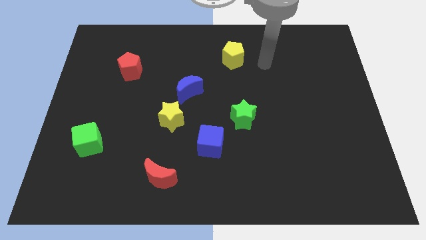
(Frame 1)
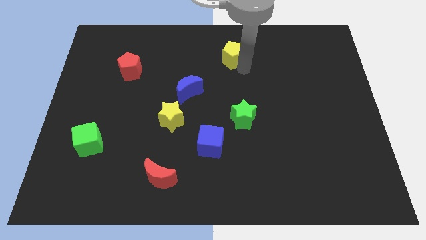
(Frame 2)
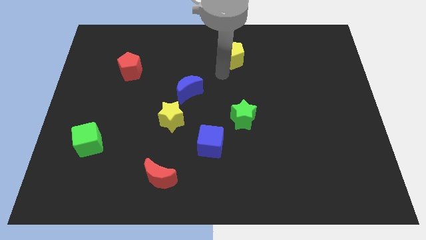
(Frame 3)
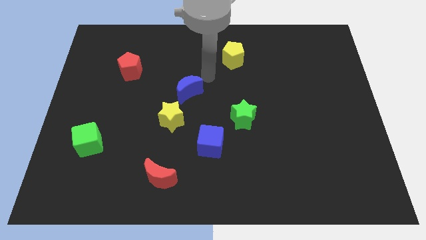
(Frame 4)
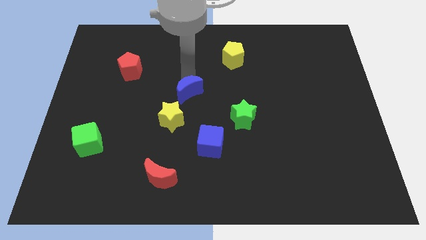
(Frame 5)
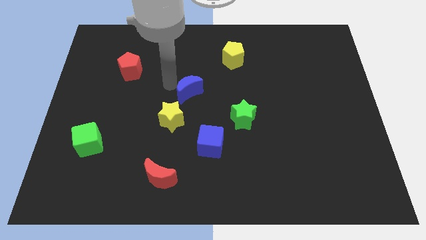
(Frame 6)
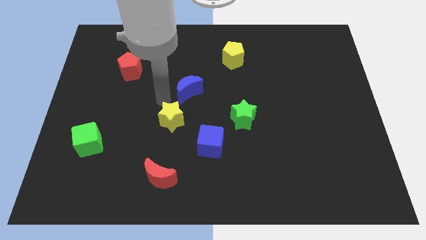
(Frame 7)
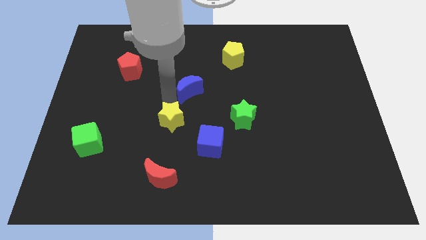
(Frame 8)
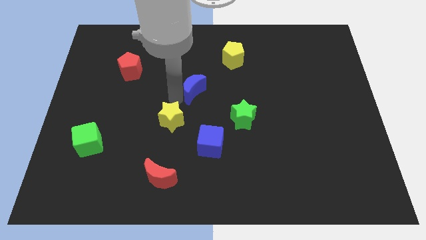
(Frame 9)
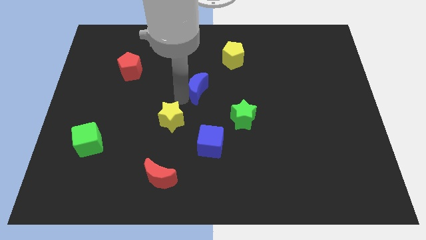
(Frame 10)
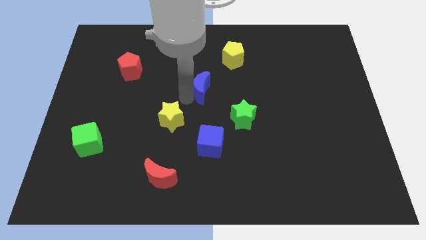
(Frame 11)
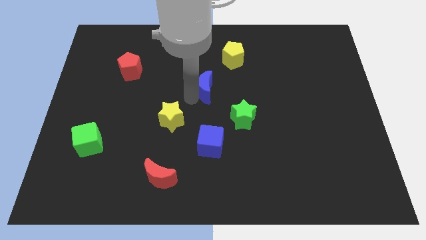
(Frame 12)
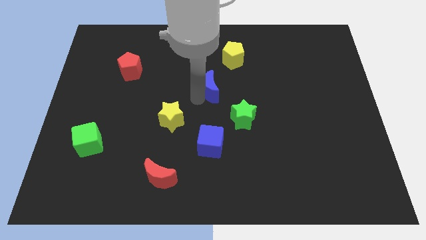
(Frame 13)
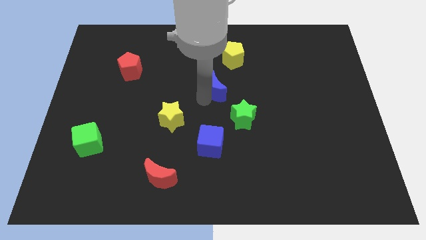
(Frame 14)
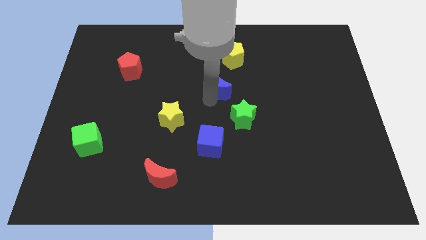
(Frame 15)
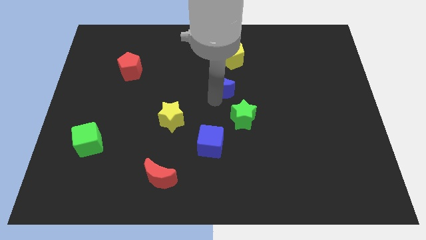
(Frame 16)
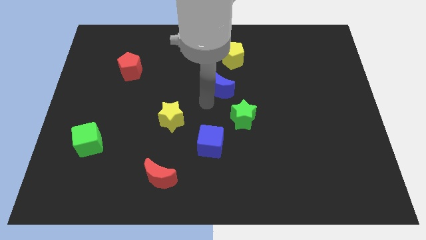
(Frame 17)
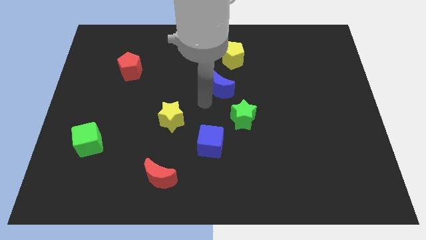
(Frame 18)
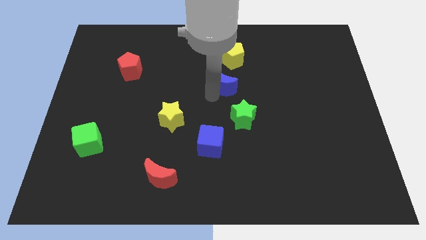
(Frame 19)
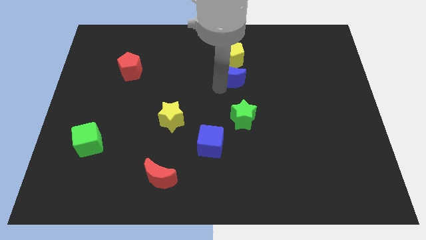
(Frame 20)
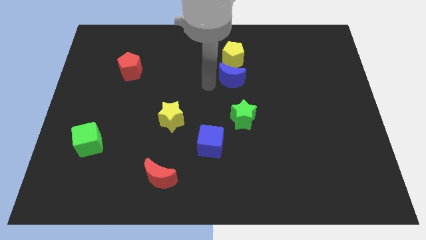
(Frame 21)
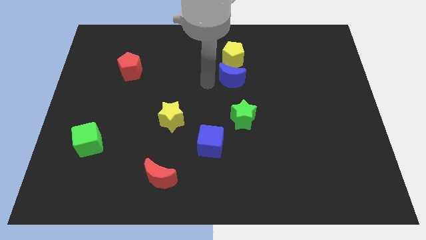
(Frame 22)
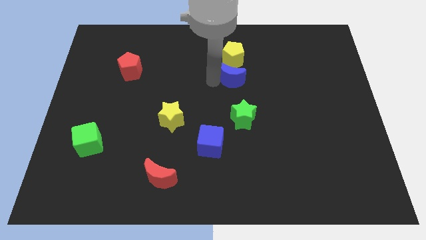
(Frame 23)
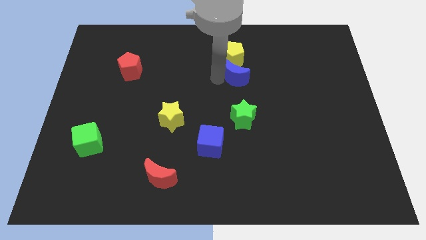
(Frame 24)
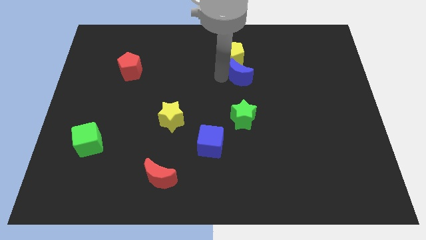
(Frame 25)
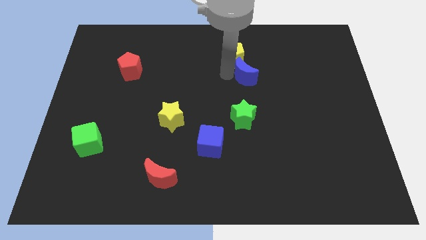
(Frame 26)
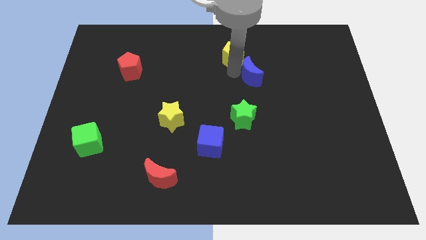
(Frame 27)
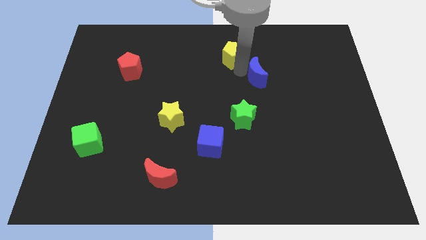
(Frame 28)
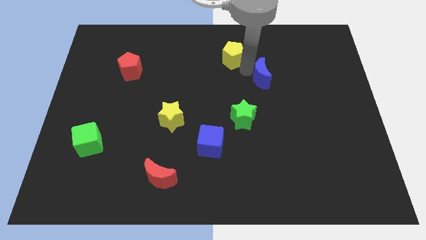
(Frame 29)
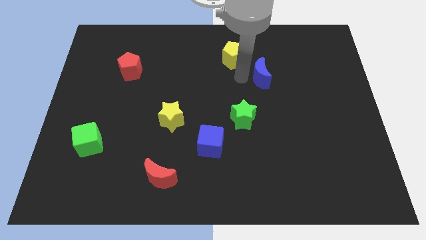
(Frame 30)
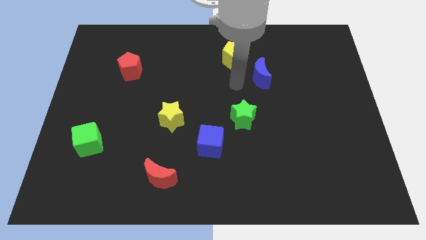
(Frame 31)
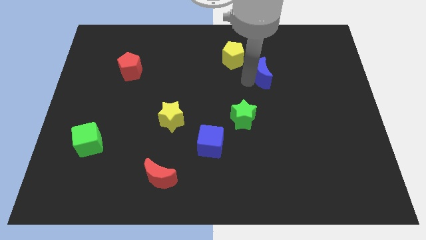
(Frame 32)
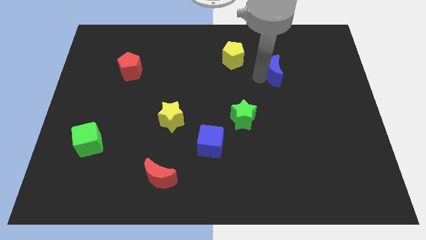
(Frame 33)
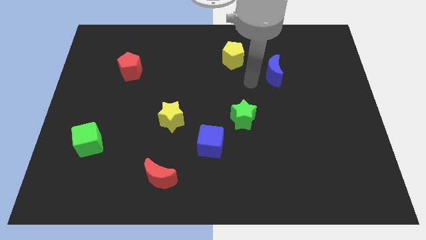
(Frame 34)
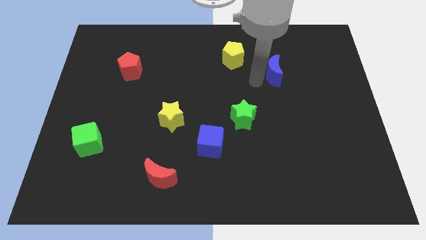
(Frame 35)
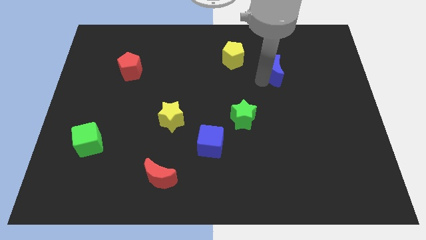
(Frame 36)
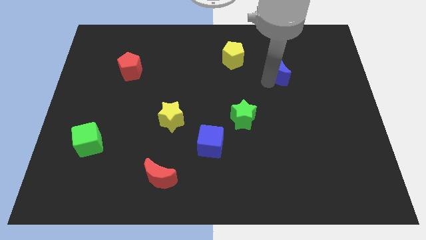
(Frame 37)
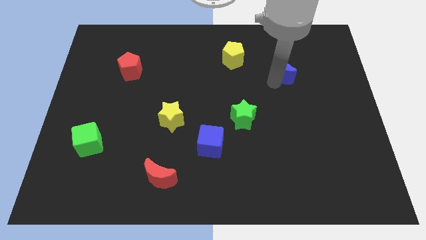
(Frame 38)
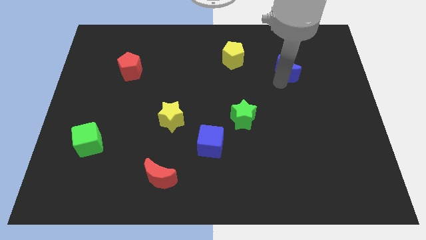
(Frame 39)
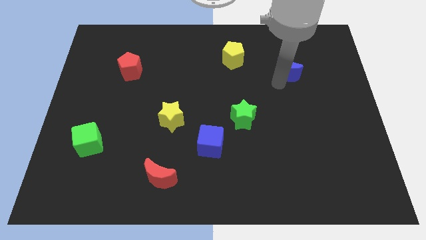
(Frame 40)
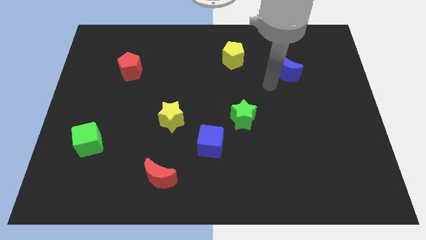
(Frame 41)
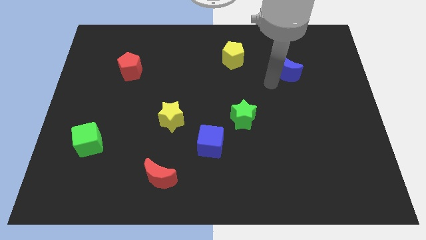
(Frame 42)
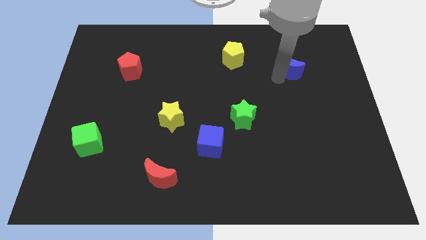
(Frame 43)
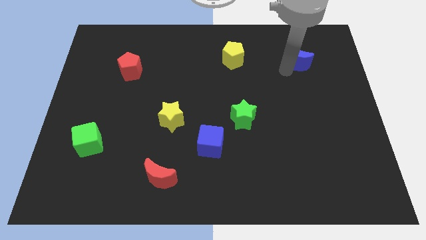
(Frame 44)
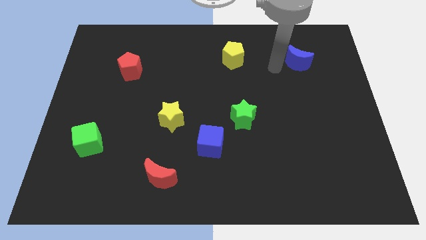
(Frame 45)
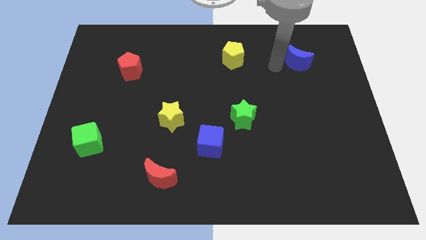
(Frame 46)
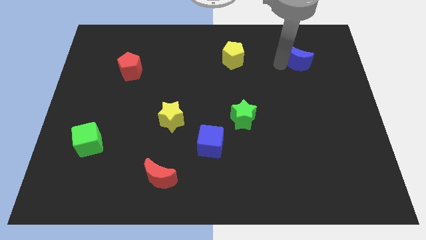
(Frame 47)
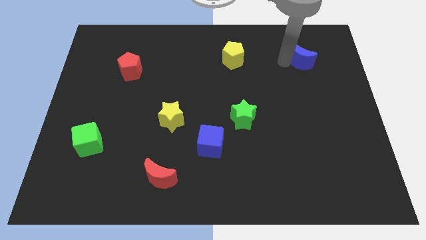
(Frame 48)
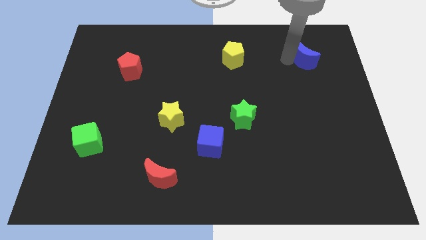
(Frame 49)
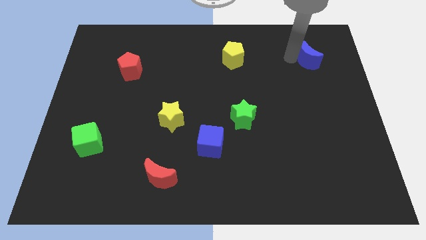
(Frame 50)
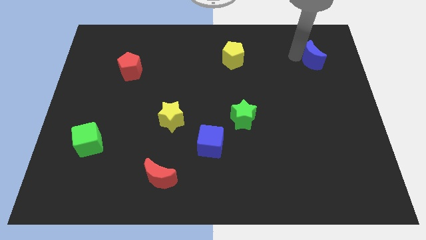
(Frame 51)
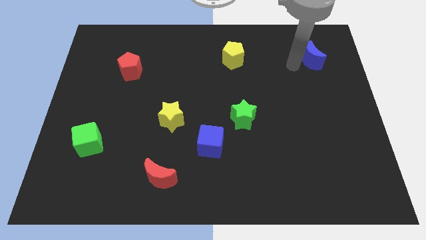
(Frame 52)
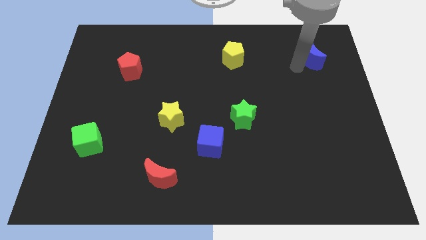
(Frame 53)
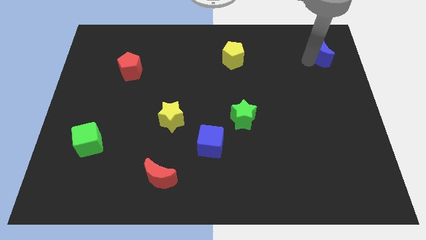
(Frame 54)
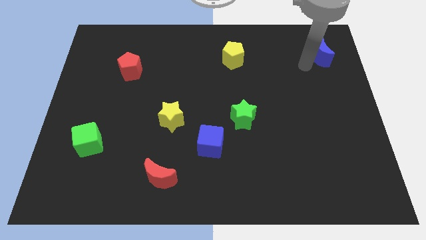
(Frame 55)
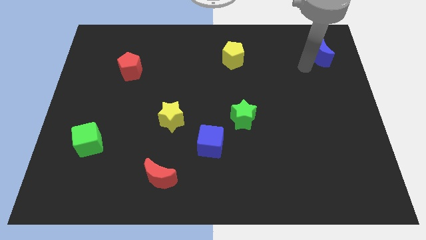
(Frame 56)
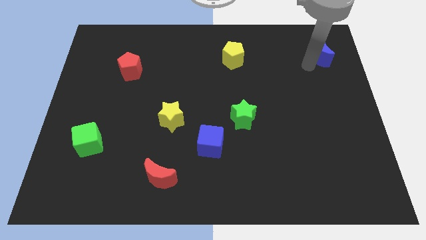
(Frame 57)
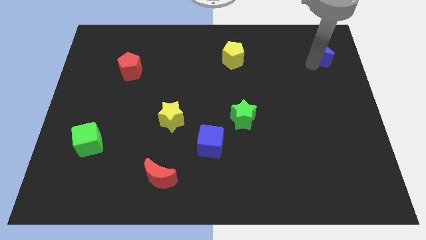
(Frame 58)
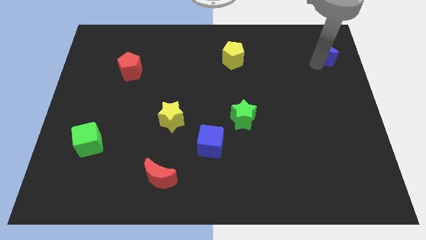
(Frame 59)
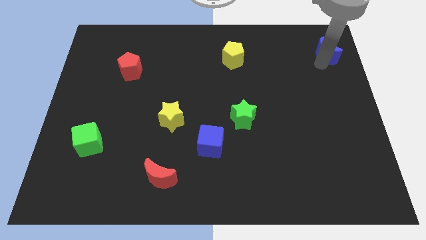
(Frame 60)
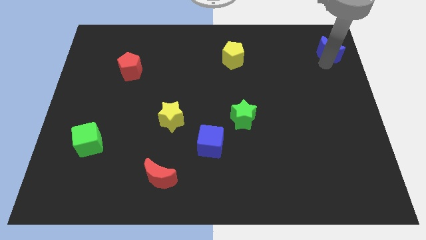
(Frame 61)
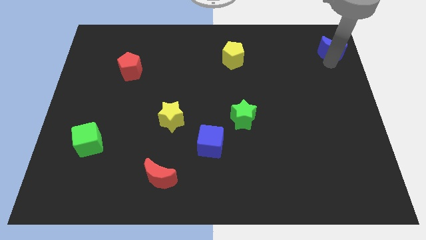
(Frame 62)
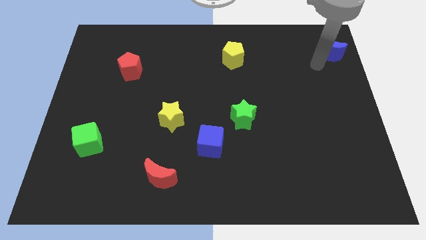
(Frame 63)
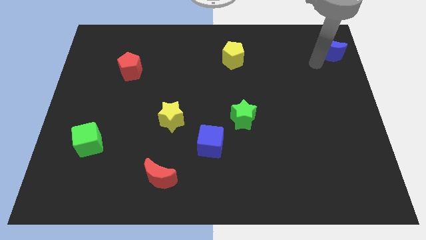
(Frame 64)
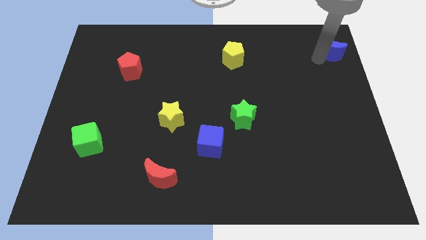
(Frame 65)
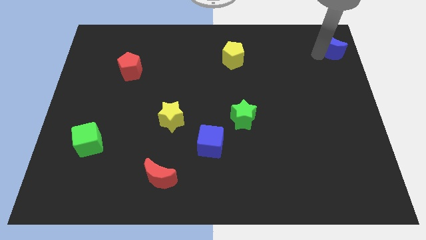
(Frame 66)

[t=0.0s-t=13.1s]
slide the blue moon to the upper right corner

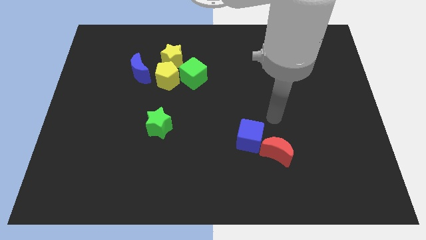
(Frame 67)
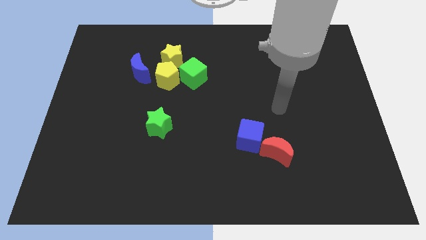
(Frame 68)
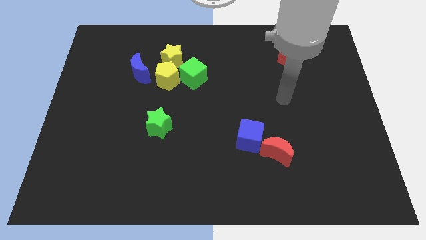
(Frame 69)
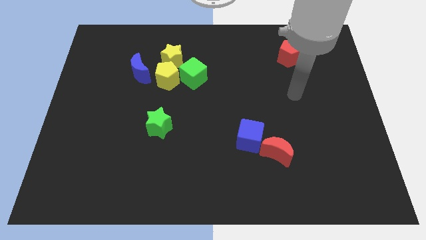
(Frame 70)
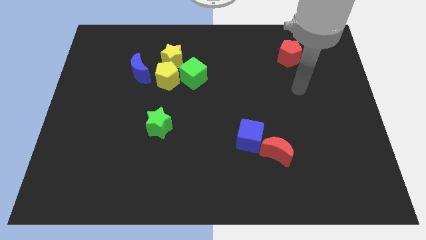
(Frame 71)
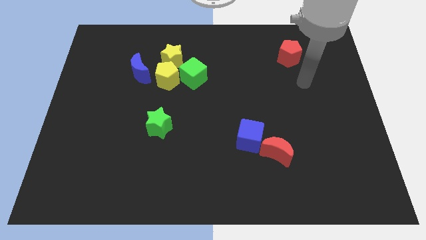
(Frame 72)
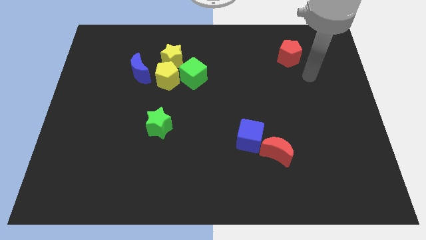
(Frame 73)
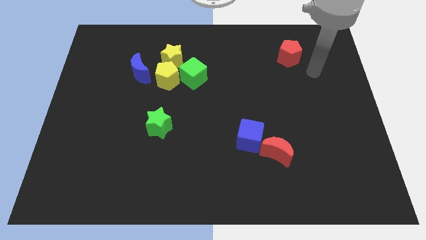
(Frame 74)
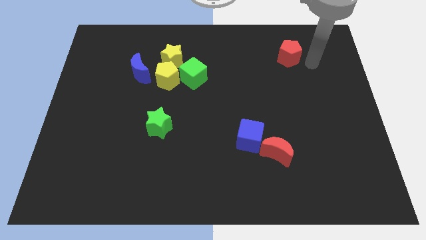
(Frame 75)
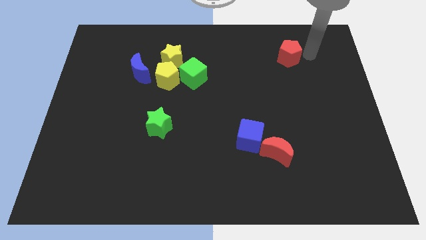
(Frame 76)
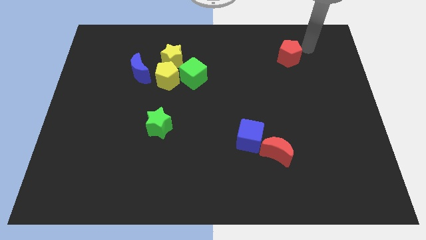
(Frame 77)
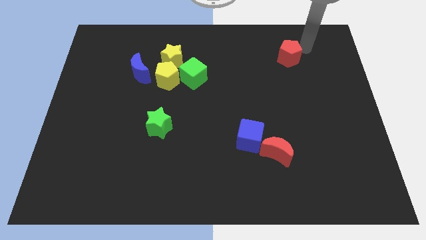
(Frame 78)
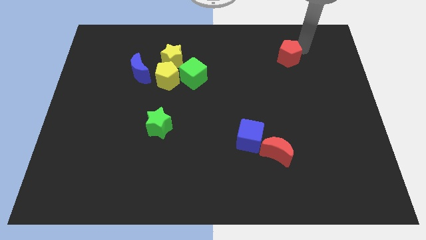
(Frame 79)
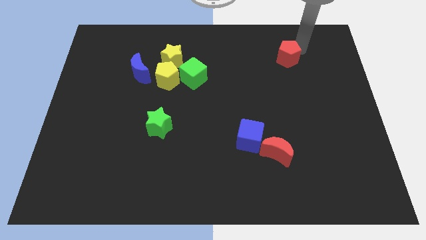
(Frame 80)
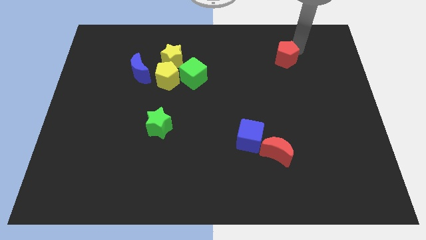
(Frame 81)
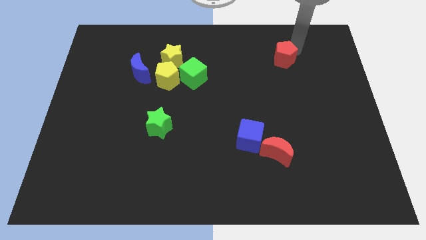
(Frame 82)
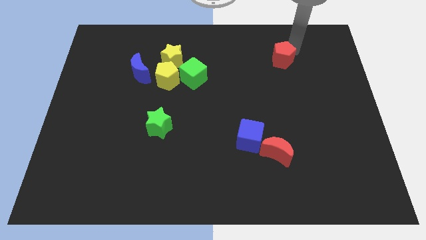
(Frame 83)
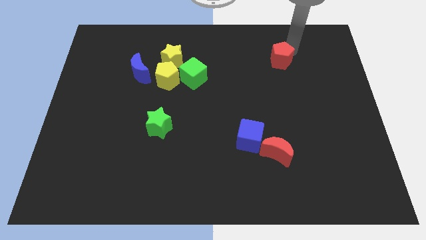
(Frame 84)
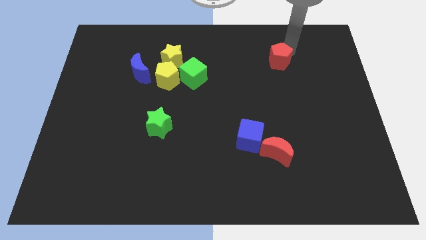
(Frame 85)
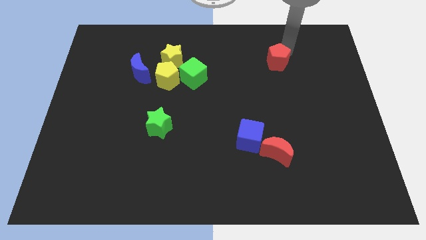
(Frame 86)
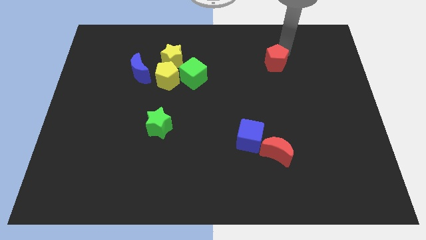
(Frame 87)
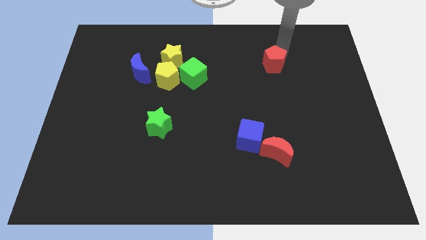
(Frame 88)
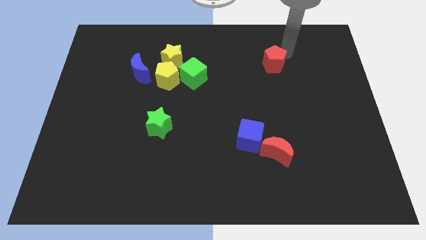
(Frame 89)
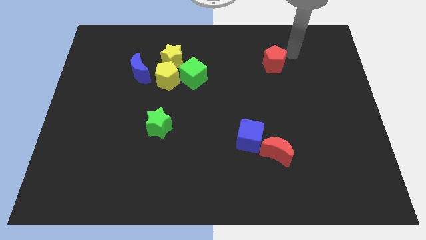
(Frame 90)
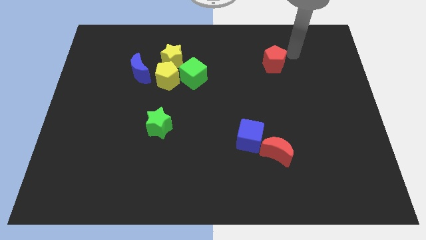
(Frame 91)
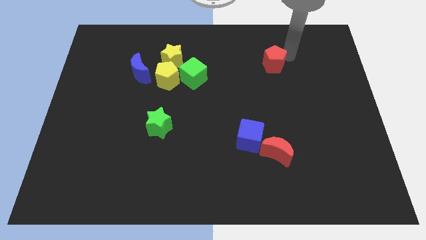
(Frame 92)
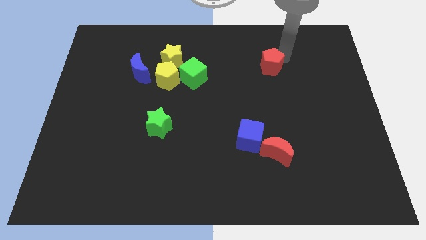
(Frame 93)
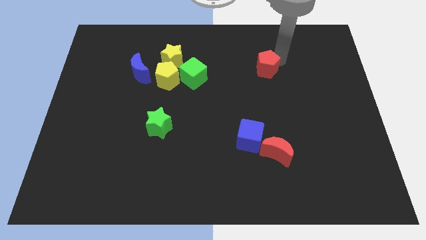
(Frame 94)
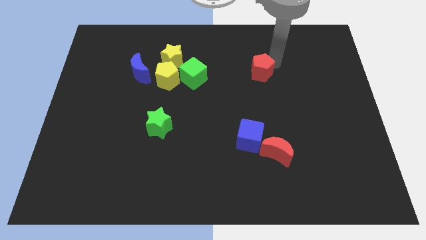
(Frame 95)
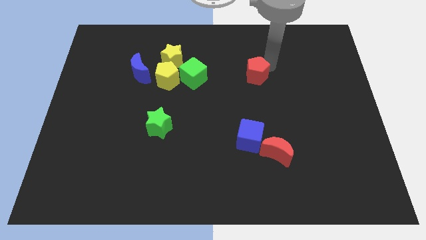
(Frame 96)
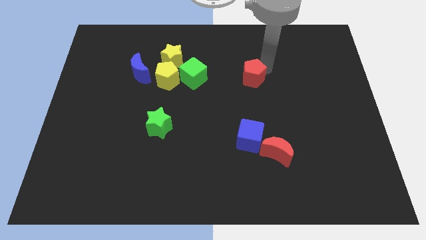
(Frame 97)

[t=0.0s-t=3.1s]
push the red pentagon to the center
